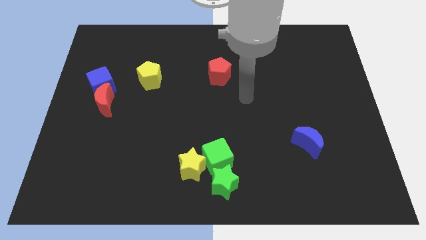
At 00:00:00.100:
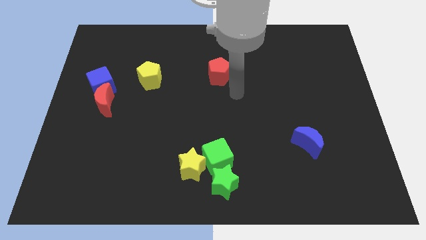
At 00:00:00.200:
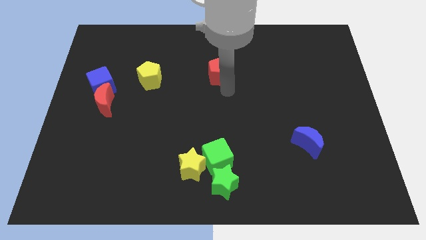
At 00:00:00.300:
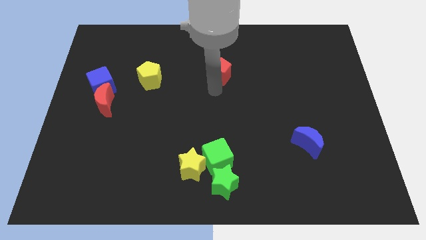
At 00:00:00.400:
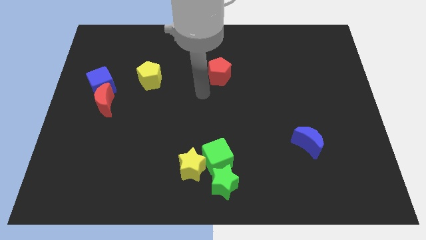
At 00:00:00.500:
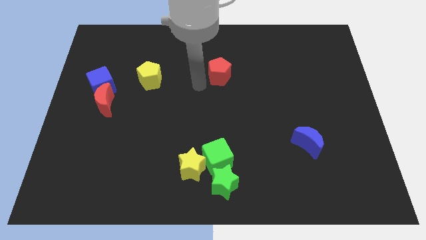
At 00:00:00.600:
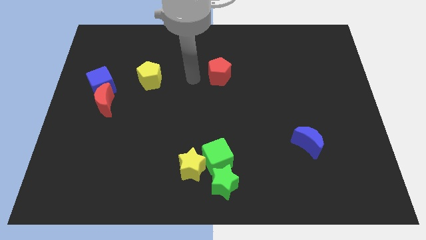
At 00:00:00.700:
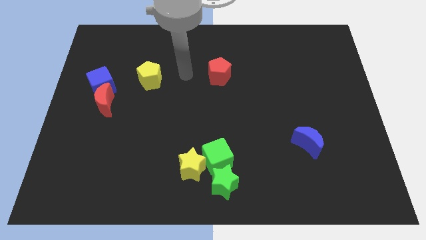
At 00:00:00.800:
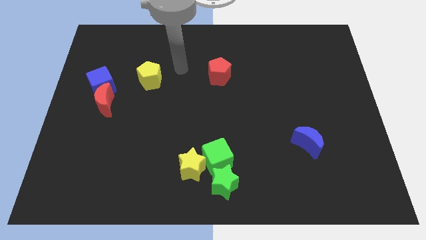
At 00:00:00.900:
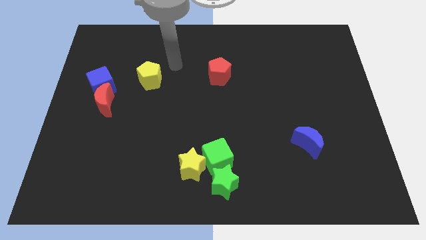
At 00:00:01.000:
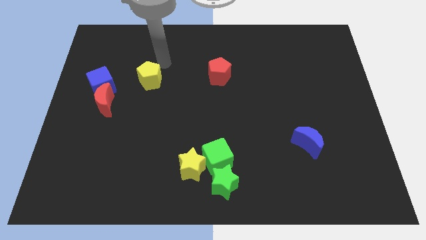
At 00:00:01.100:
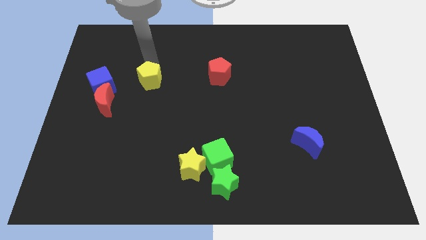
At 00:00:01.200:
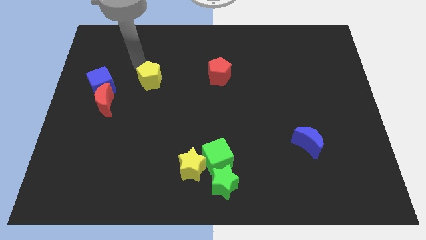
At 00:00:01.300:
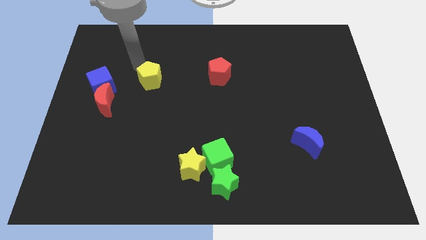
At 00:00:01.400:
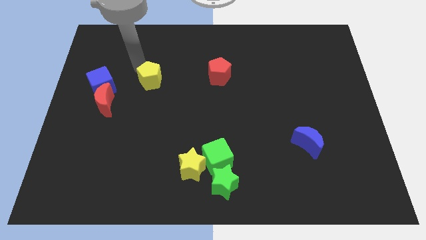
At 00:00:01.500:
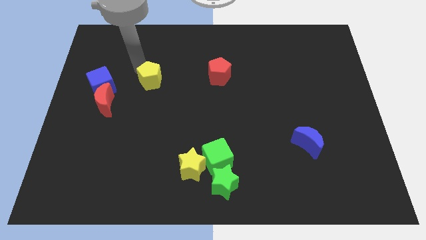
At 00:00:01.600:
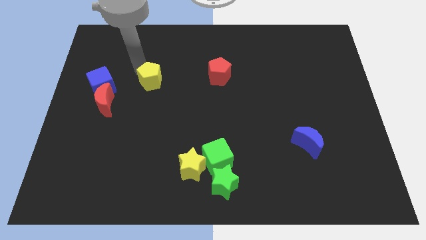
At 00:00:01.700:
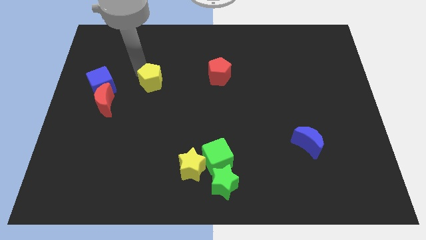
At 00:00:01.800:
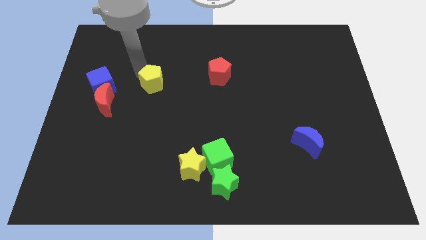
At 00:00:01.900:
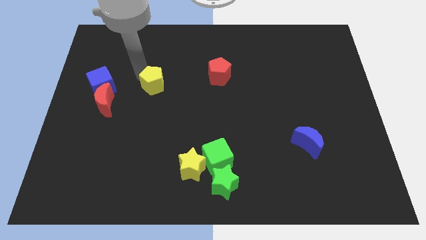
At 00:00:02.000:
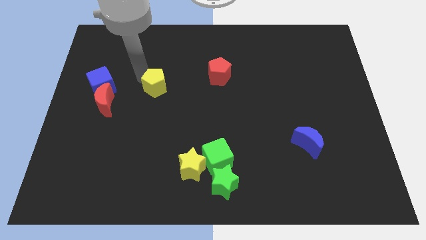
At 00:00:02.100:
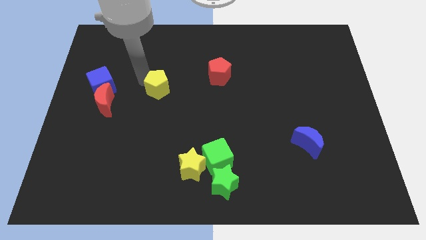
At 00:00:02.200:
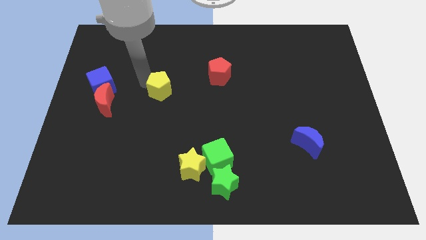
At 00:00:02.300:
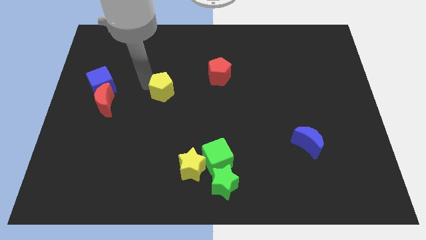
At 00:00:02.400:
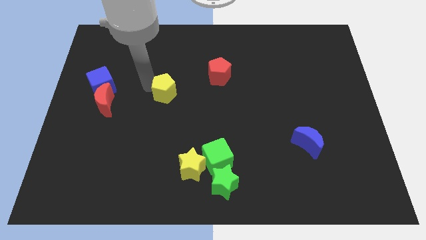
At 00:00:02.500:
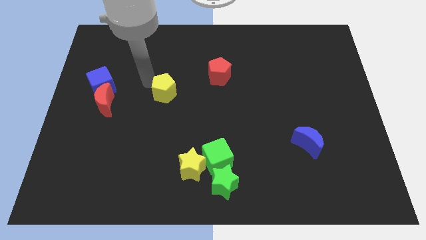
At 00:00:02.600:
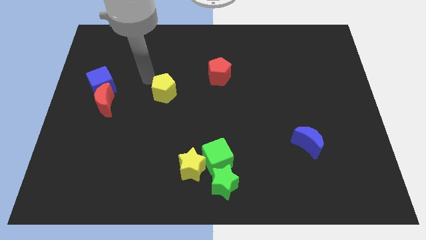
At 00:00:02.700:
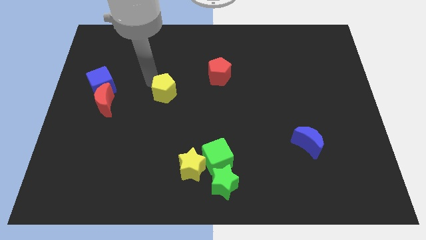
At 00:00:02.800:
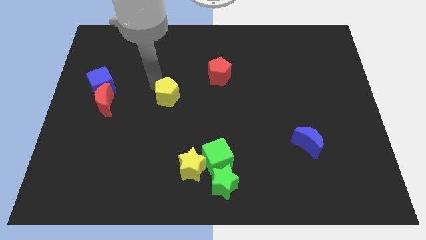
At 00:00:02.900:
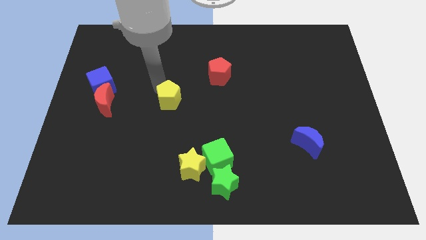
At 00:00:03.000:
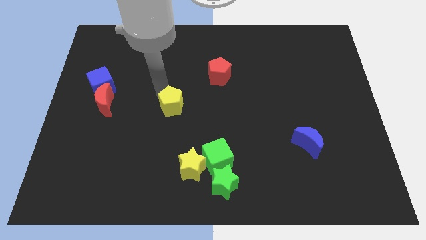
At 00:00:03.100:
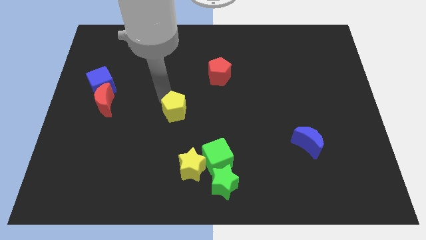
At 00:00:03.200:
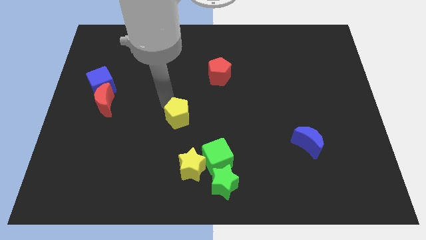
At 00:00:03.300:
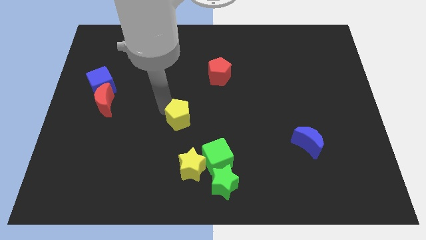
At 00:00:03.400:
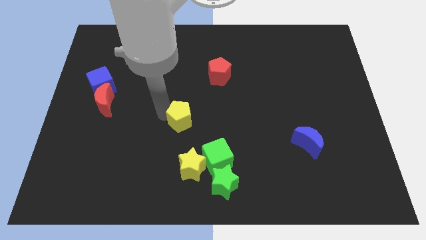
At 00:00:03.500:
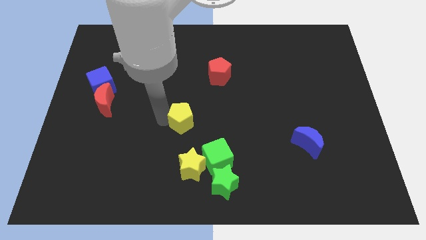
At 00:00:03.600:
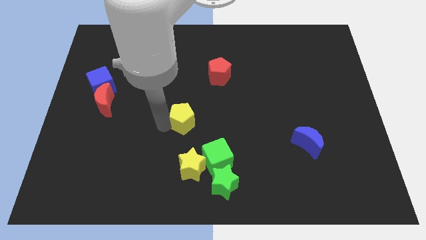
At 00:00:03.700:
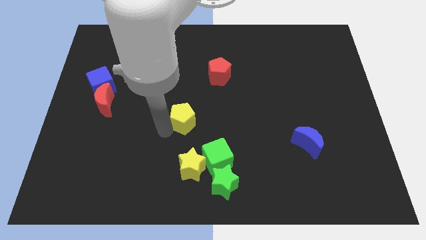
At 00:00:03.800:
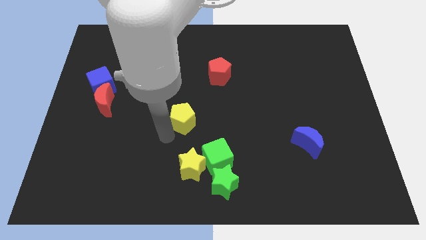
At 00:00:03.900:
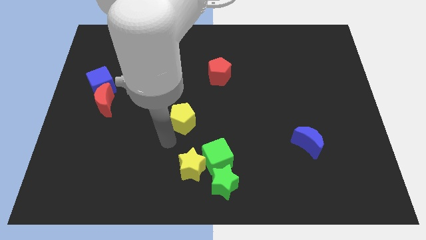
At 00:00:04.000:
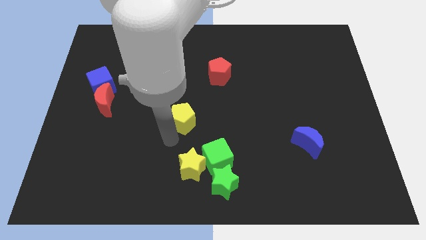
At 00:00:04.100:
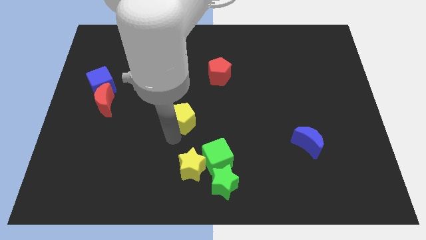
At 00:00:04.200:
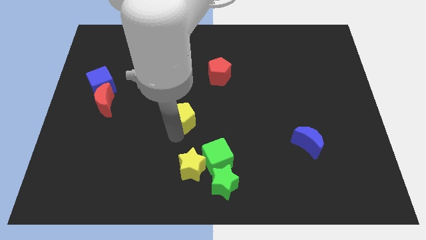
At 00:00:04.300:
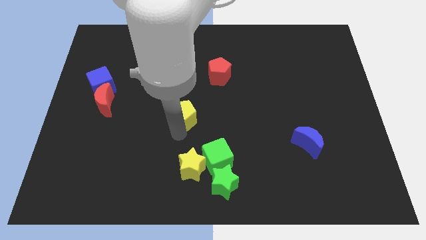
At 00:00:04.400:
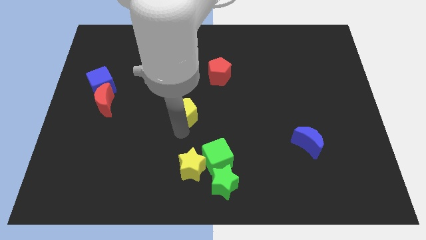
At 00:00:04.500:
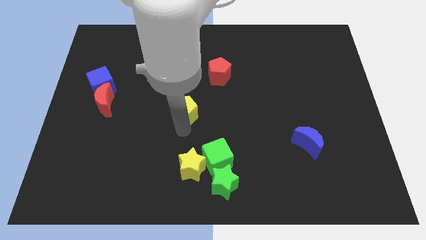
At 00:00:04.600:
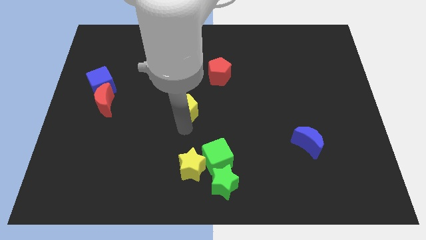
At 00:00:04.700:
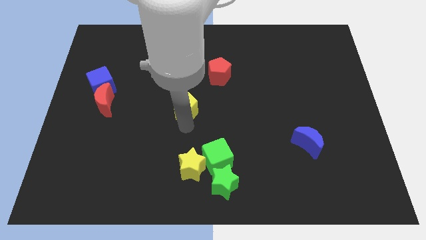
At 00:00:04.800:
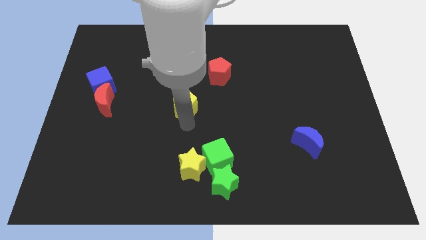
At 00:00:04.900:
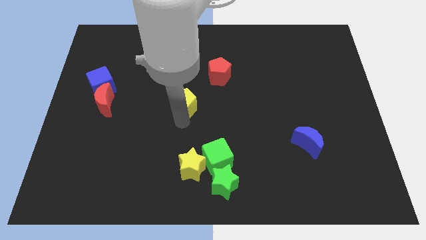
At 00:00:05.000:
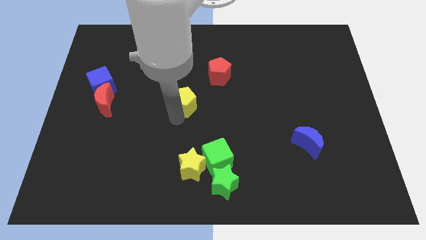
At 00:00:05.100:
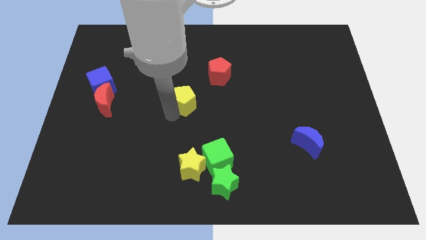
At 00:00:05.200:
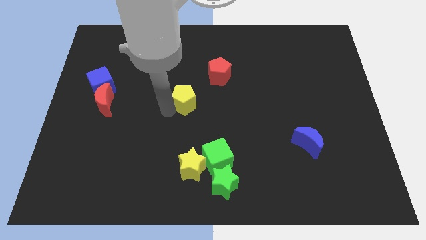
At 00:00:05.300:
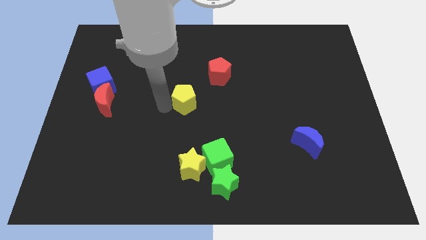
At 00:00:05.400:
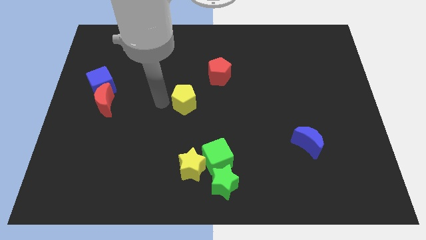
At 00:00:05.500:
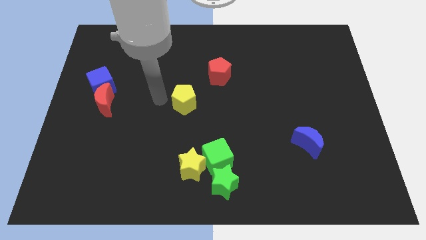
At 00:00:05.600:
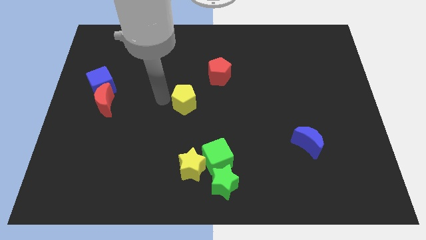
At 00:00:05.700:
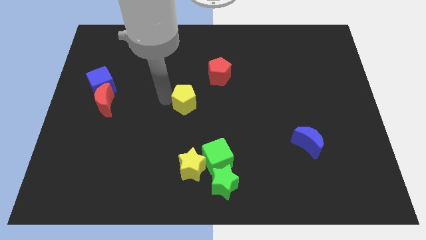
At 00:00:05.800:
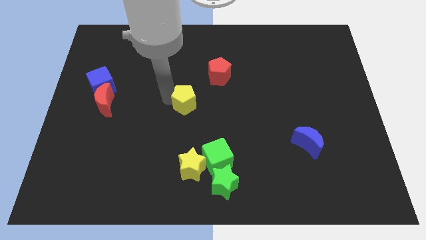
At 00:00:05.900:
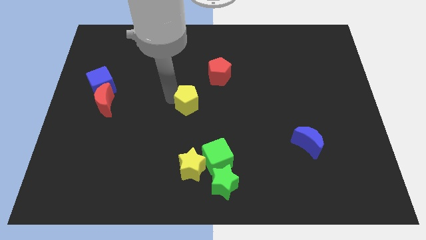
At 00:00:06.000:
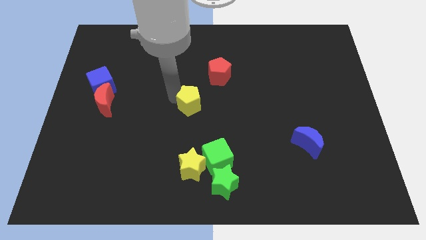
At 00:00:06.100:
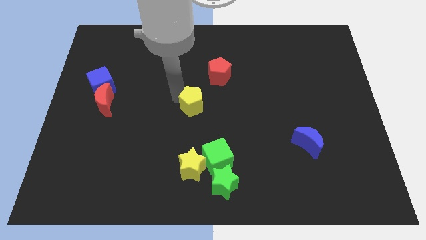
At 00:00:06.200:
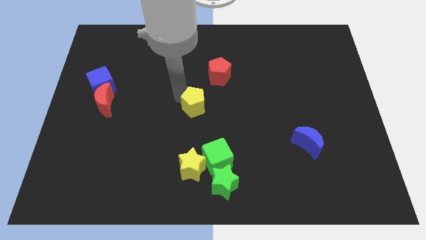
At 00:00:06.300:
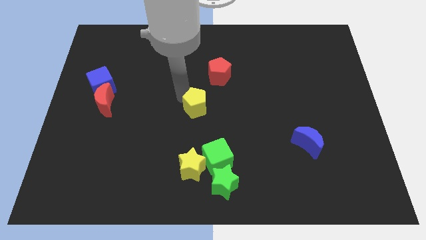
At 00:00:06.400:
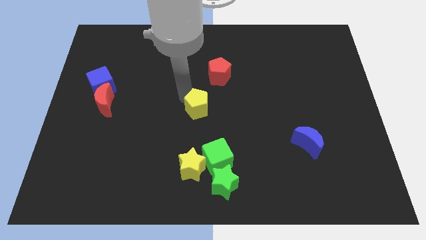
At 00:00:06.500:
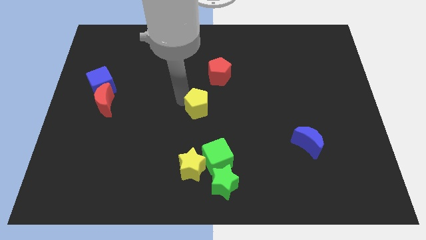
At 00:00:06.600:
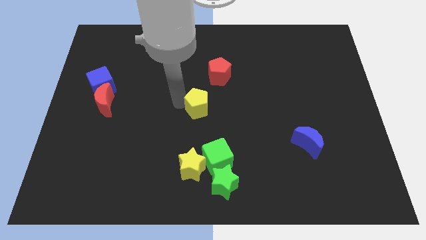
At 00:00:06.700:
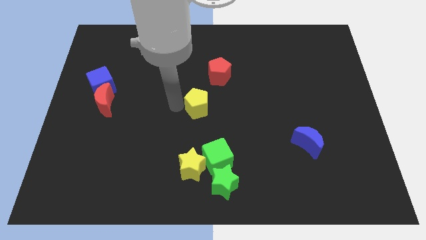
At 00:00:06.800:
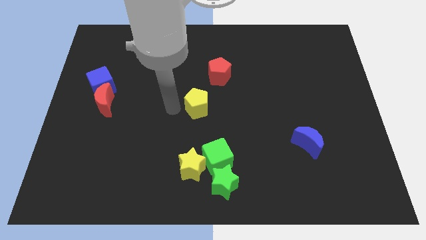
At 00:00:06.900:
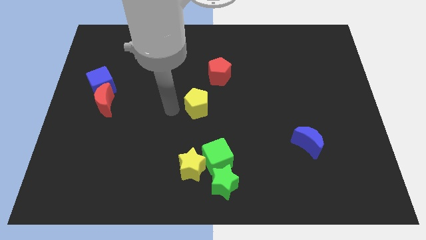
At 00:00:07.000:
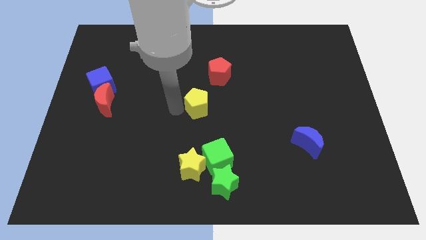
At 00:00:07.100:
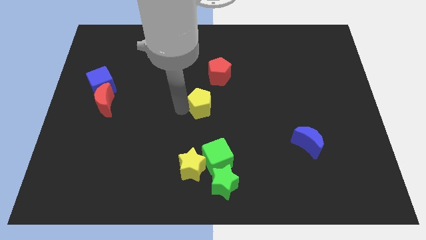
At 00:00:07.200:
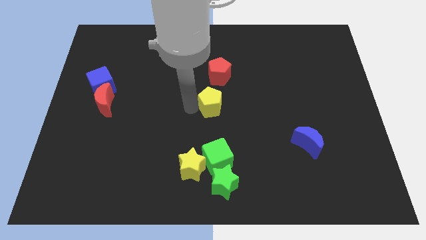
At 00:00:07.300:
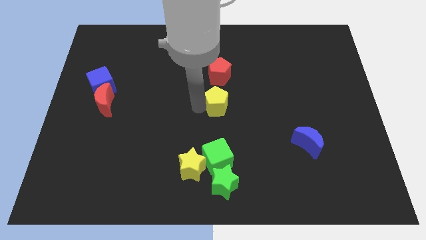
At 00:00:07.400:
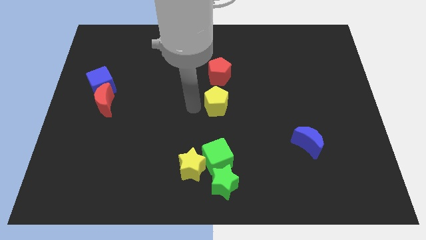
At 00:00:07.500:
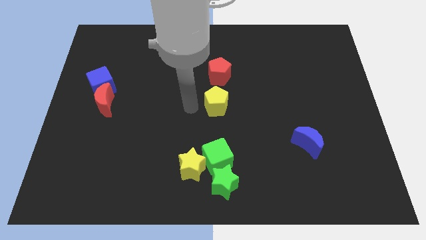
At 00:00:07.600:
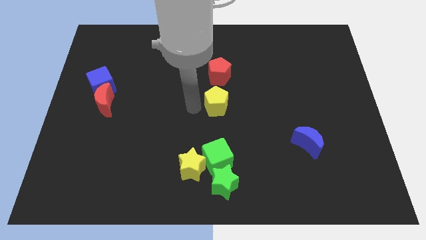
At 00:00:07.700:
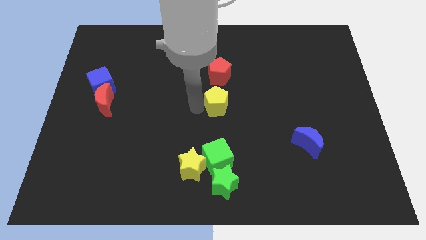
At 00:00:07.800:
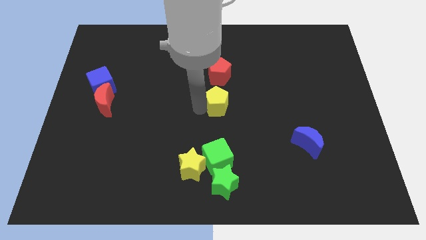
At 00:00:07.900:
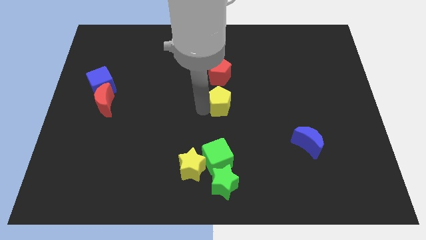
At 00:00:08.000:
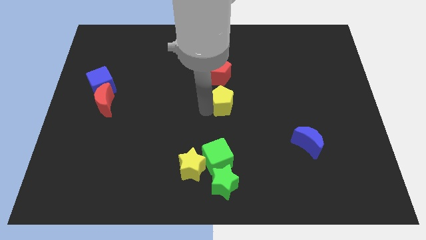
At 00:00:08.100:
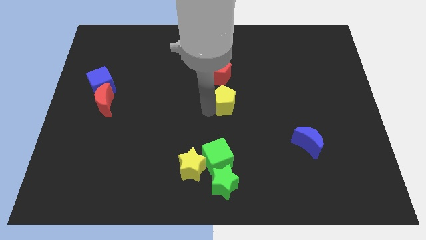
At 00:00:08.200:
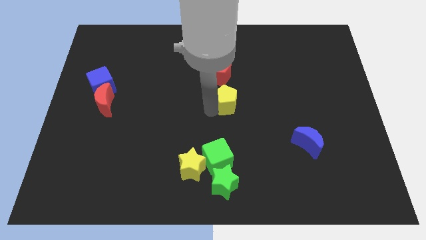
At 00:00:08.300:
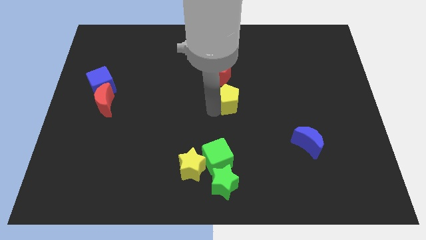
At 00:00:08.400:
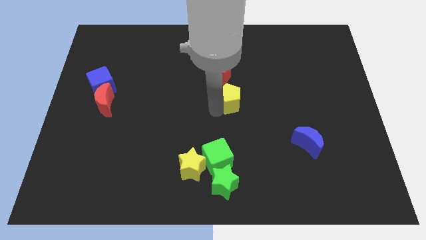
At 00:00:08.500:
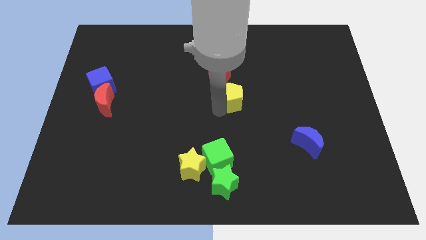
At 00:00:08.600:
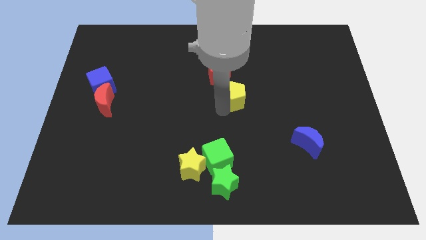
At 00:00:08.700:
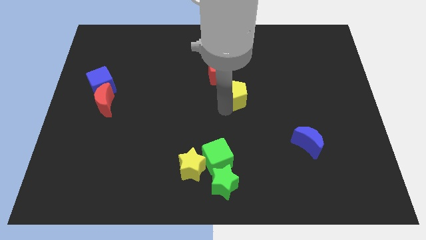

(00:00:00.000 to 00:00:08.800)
move the yellow pentagon right
